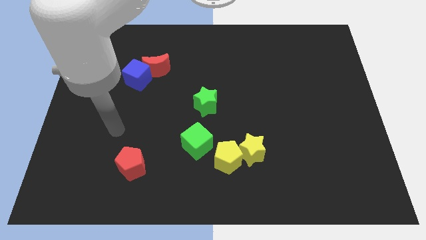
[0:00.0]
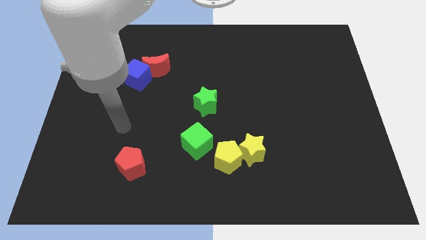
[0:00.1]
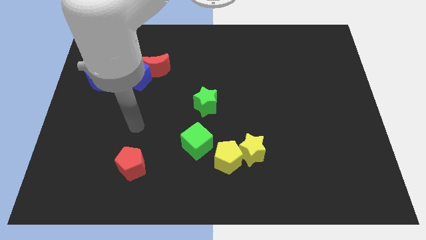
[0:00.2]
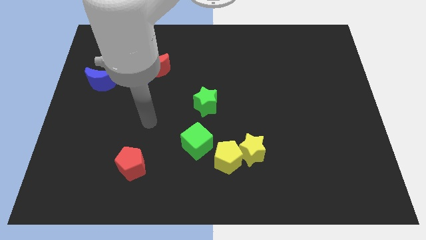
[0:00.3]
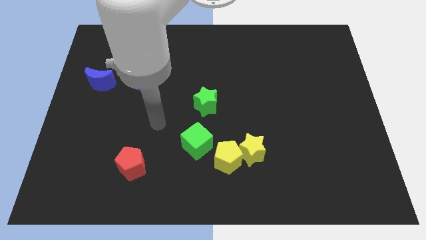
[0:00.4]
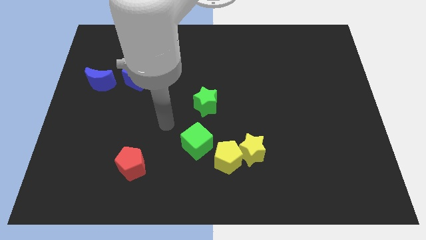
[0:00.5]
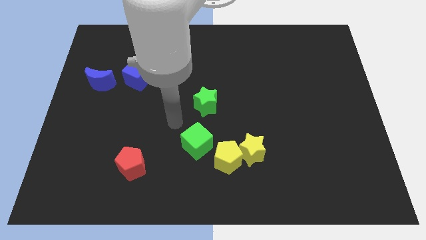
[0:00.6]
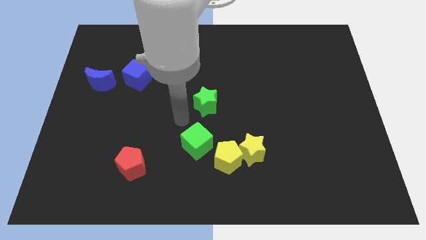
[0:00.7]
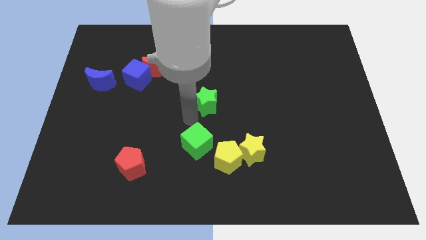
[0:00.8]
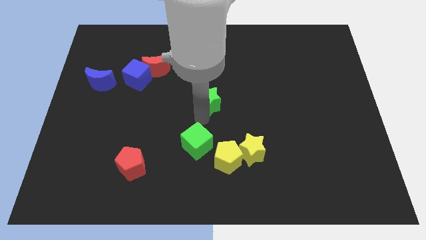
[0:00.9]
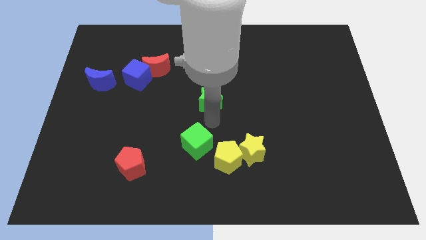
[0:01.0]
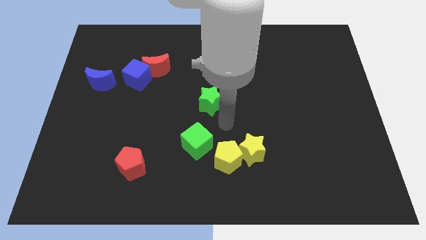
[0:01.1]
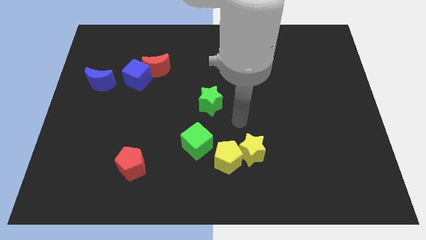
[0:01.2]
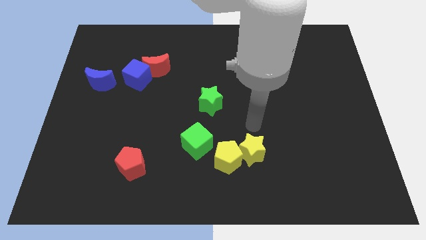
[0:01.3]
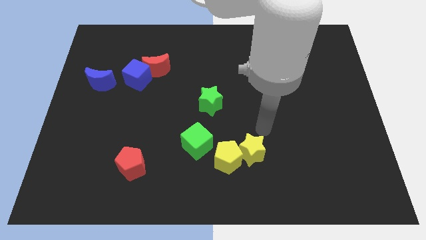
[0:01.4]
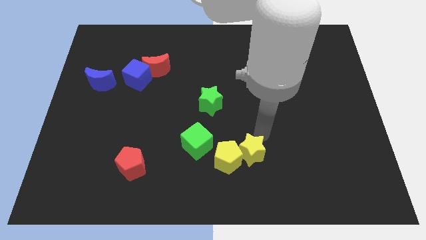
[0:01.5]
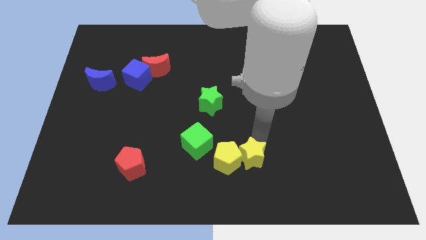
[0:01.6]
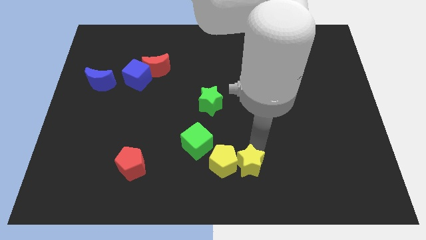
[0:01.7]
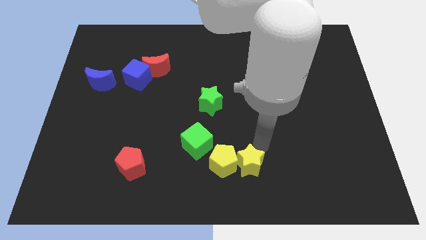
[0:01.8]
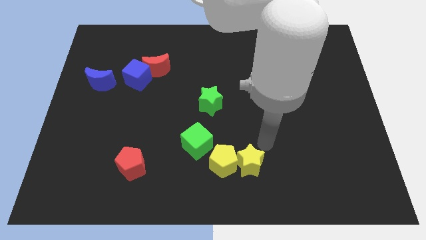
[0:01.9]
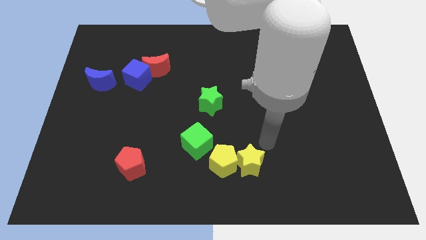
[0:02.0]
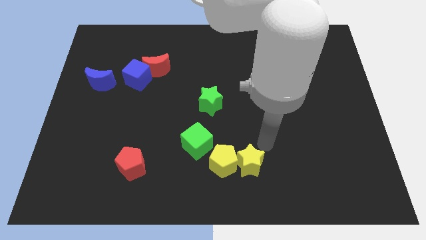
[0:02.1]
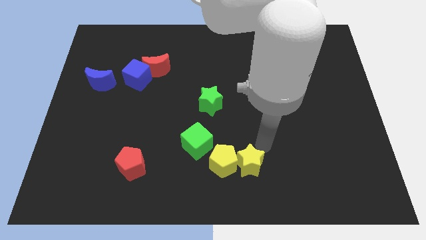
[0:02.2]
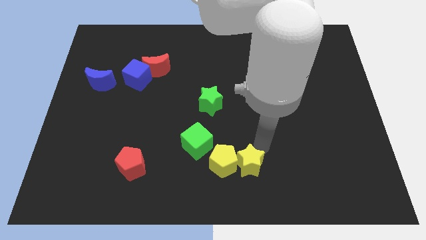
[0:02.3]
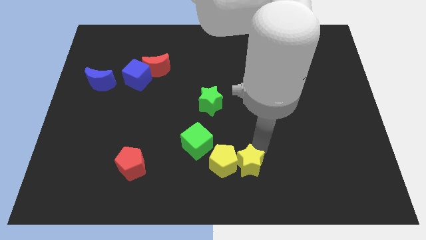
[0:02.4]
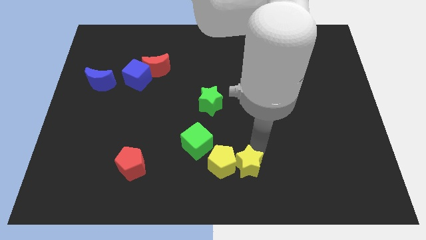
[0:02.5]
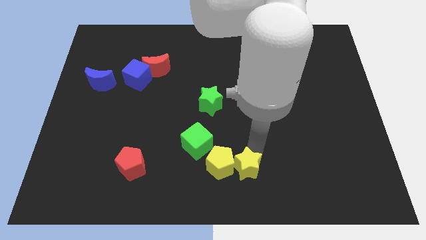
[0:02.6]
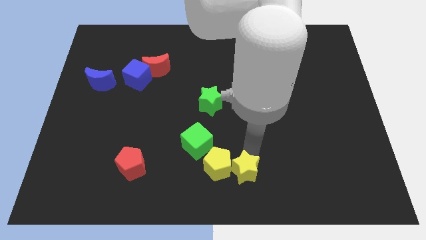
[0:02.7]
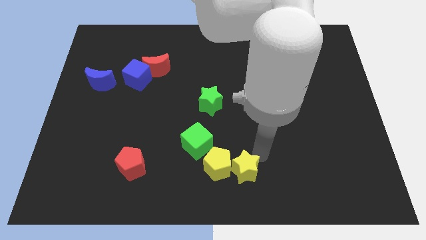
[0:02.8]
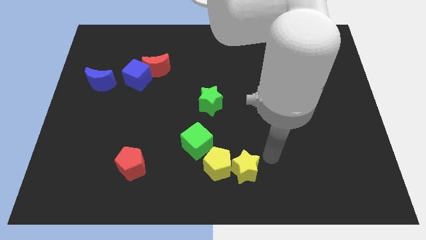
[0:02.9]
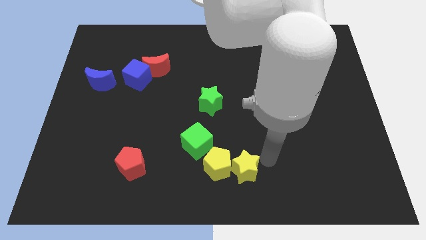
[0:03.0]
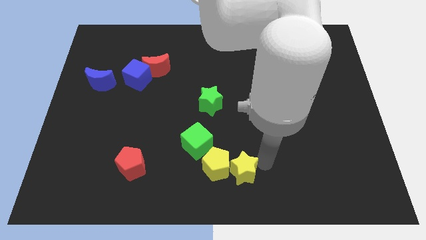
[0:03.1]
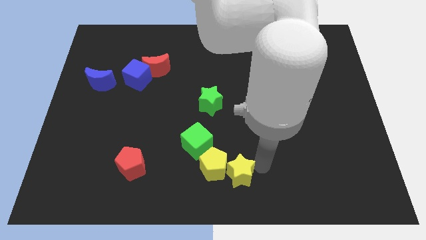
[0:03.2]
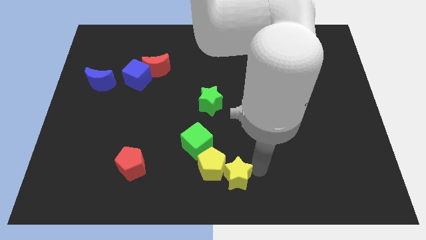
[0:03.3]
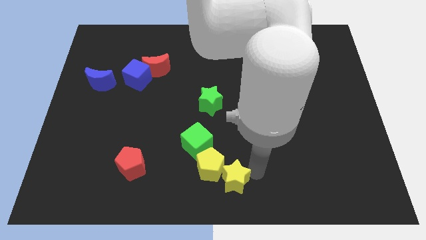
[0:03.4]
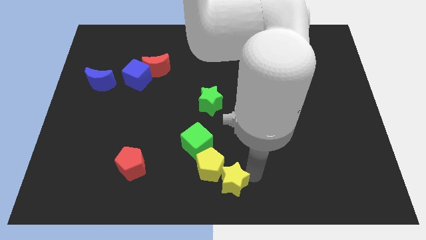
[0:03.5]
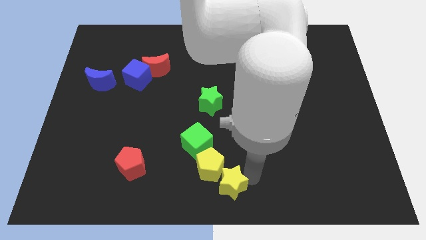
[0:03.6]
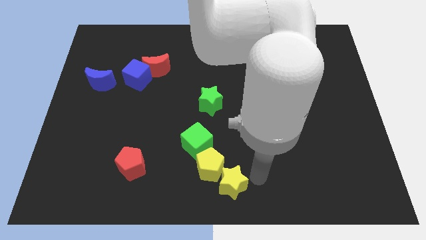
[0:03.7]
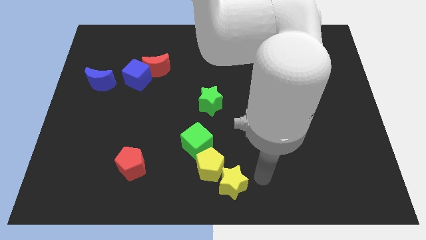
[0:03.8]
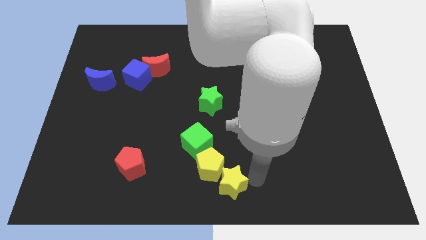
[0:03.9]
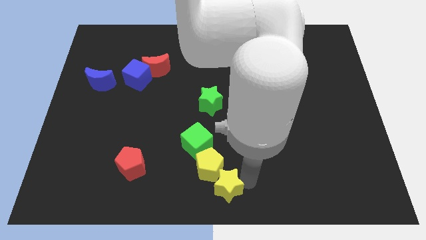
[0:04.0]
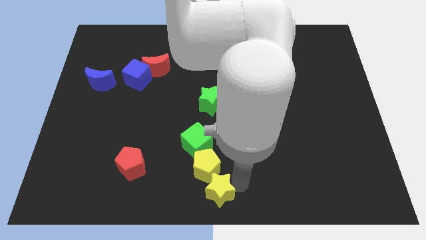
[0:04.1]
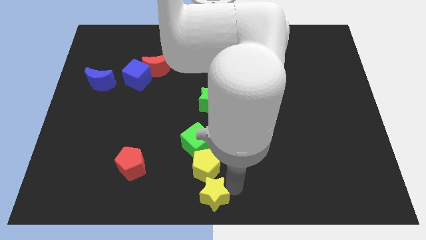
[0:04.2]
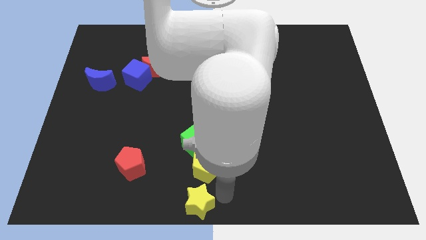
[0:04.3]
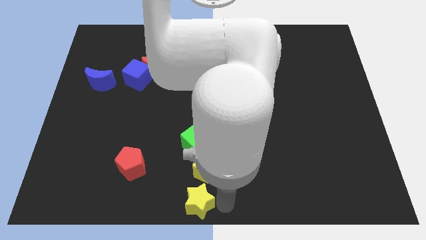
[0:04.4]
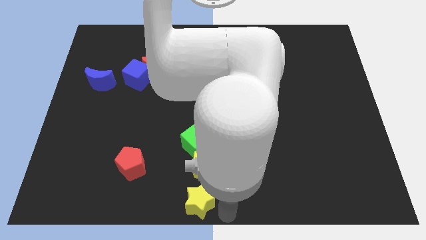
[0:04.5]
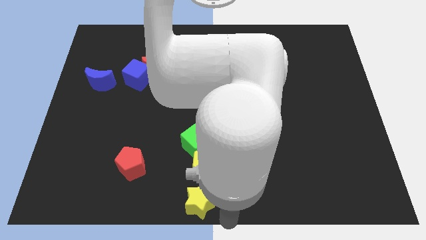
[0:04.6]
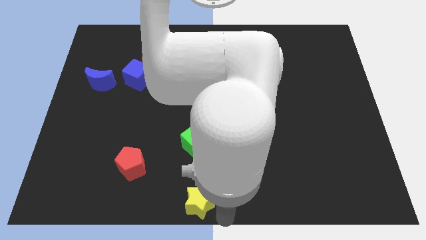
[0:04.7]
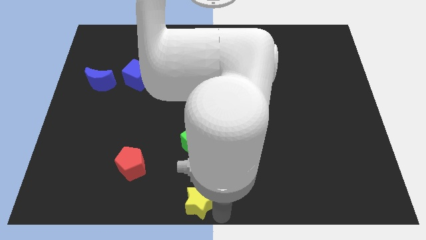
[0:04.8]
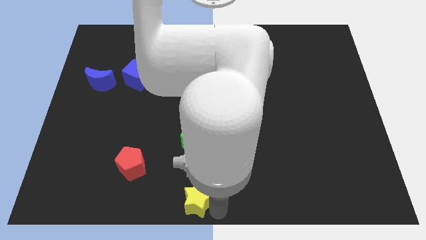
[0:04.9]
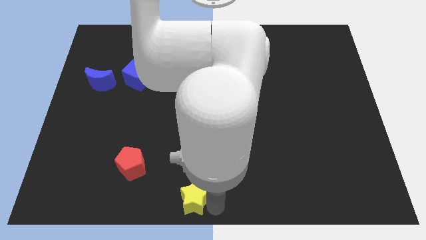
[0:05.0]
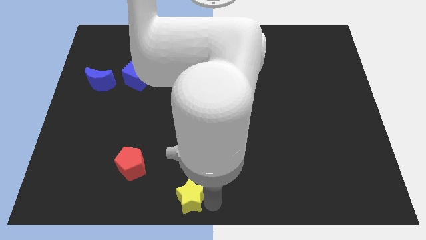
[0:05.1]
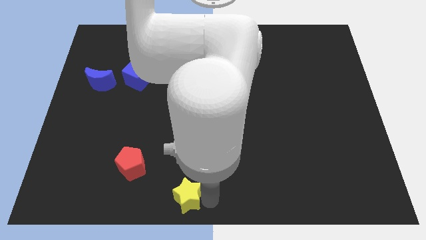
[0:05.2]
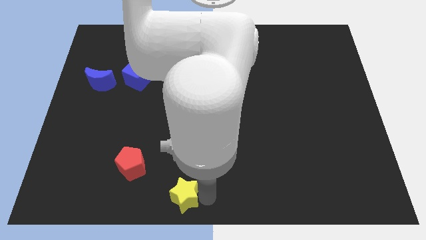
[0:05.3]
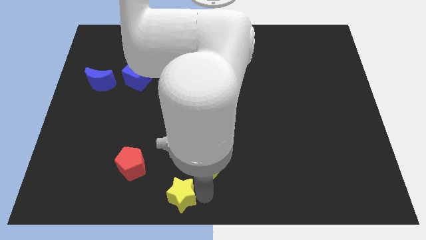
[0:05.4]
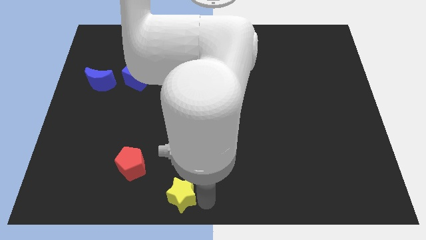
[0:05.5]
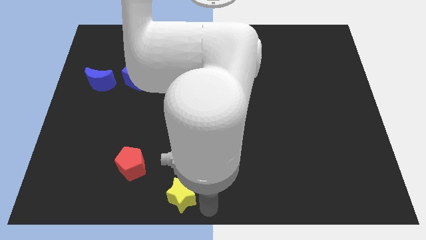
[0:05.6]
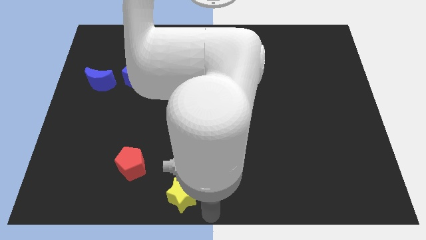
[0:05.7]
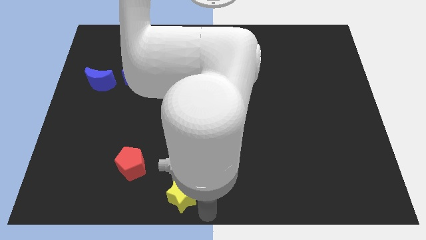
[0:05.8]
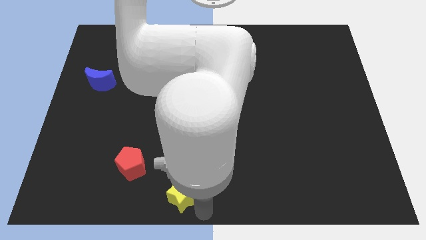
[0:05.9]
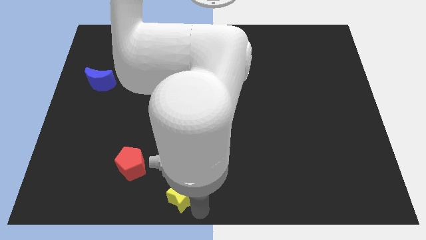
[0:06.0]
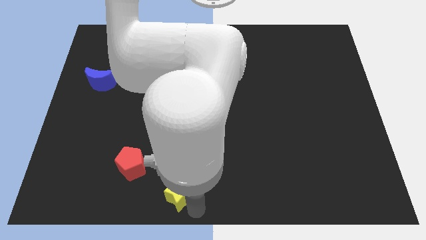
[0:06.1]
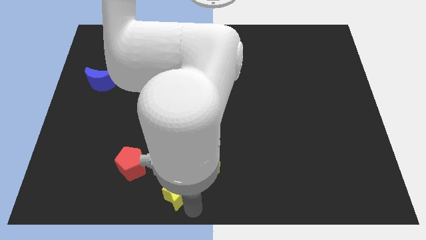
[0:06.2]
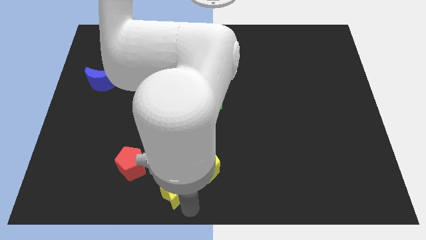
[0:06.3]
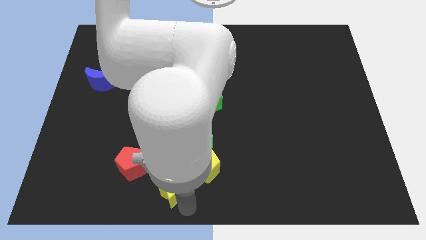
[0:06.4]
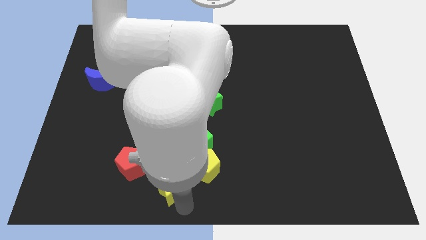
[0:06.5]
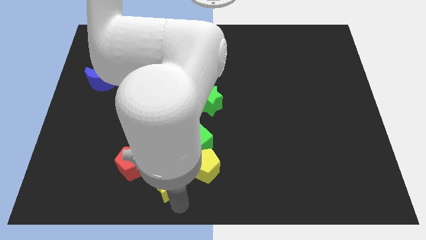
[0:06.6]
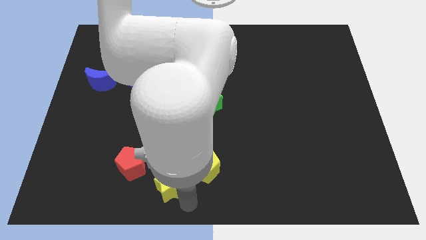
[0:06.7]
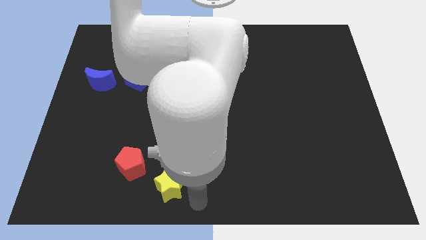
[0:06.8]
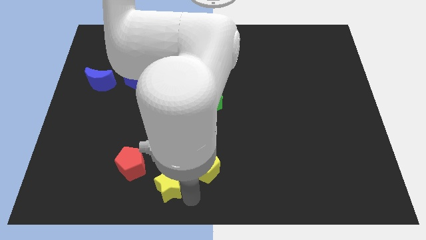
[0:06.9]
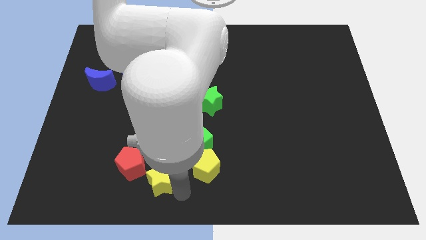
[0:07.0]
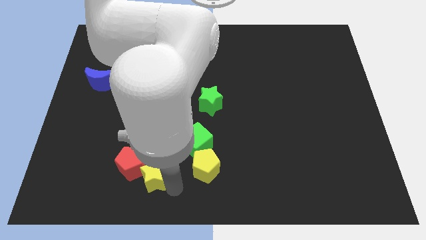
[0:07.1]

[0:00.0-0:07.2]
slide the yellow star to the red pentagon
